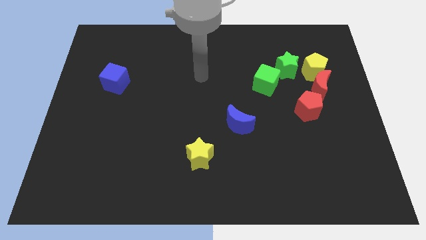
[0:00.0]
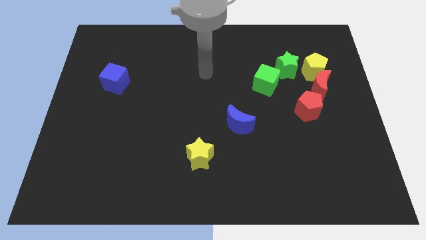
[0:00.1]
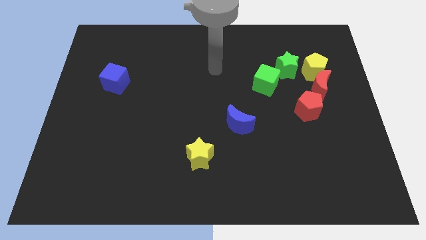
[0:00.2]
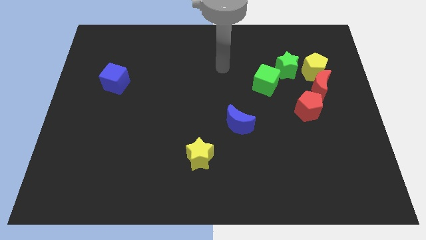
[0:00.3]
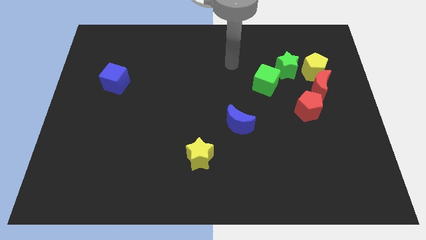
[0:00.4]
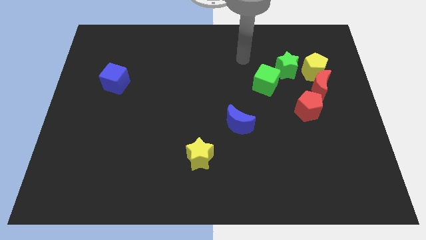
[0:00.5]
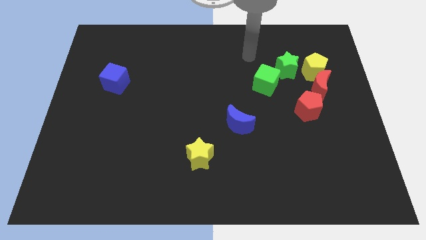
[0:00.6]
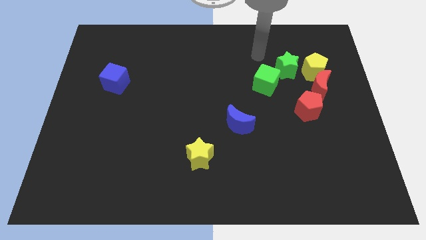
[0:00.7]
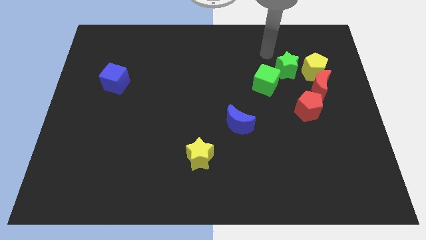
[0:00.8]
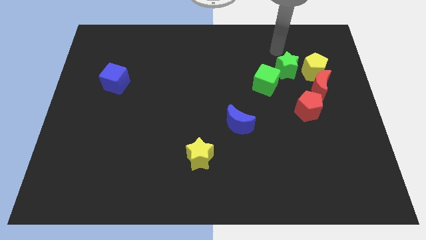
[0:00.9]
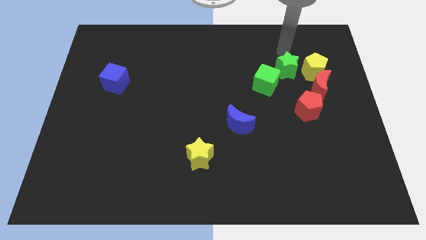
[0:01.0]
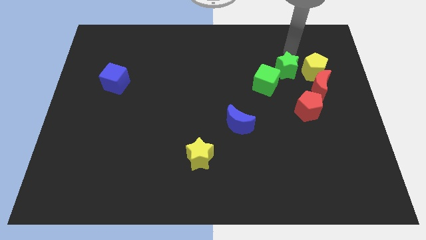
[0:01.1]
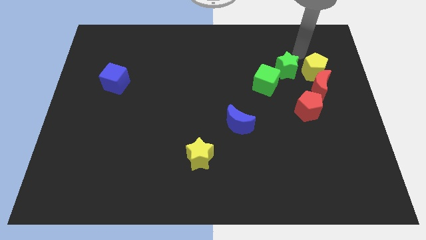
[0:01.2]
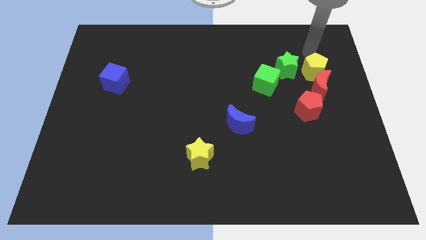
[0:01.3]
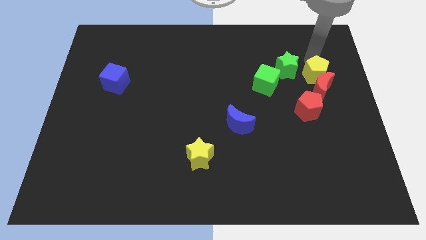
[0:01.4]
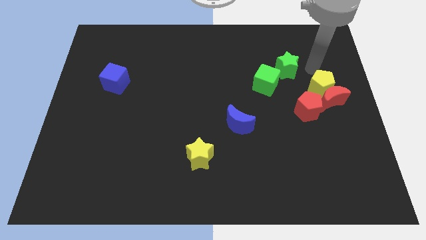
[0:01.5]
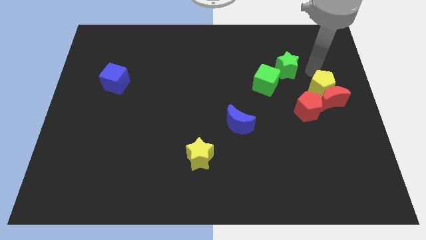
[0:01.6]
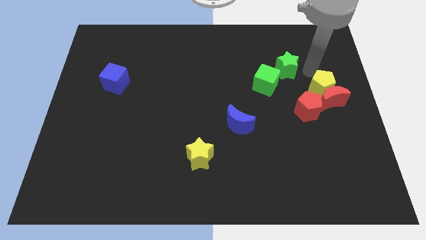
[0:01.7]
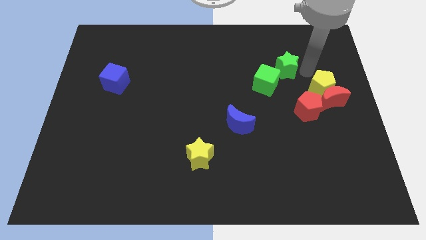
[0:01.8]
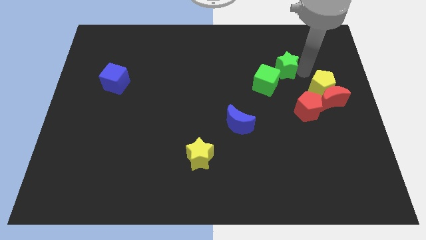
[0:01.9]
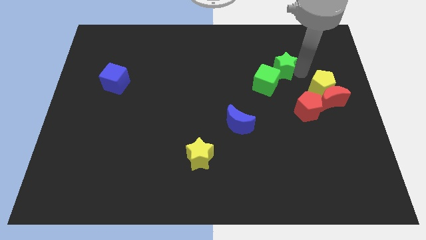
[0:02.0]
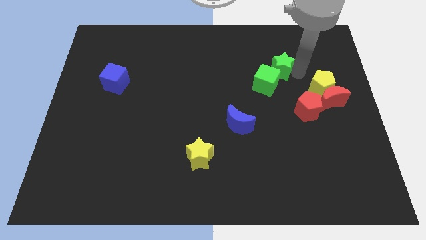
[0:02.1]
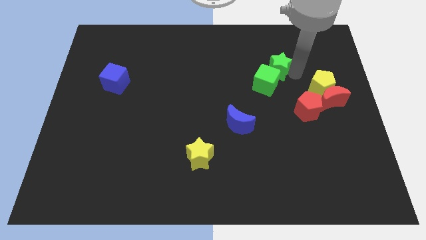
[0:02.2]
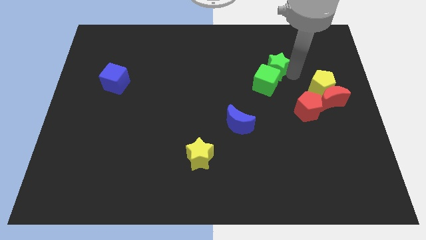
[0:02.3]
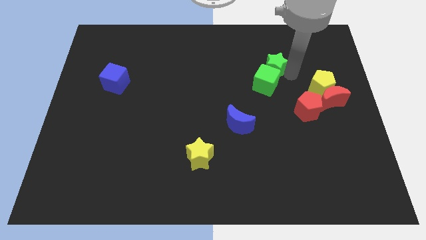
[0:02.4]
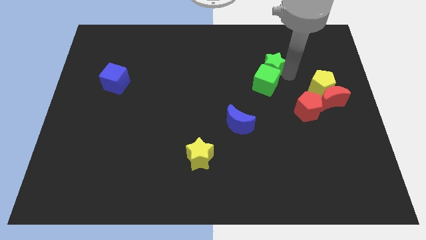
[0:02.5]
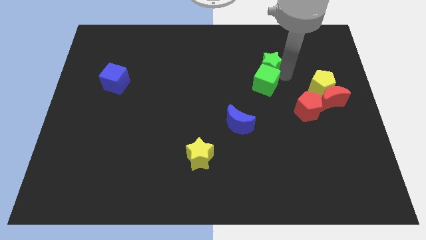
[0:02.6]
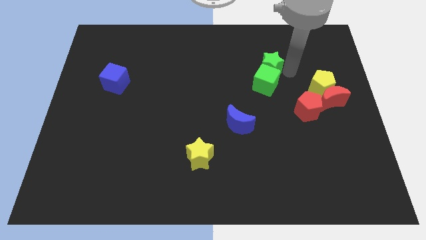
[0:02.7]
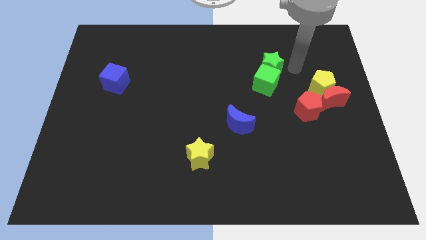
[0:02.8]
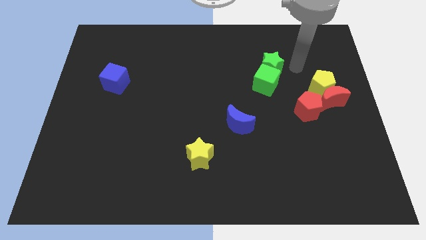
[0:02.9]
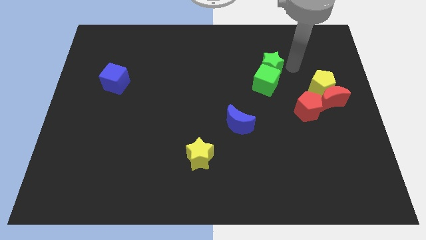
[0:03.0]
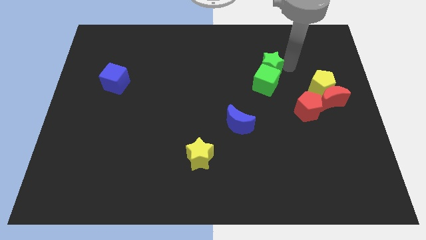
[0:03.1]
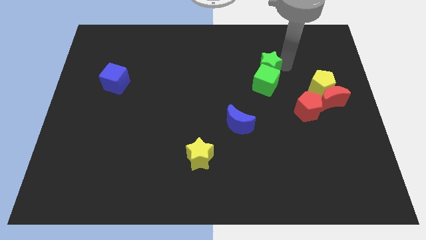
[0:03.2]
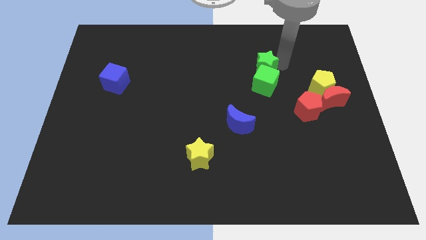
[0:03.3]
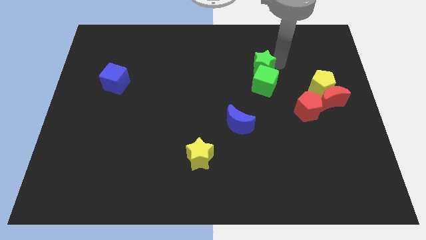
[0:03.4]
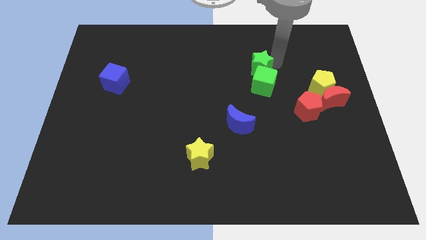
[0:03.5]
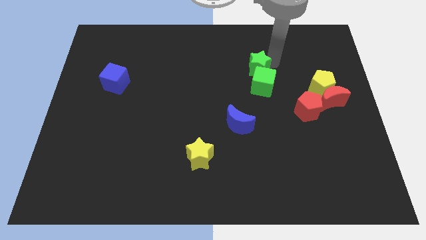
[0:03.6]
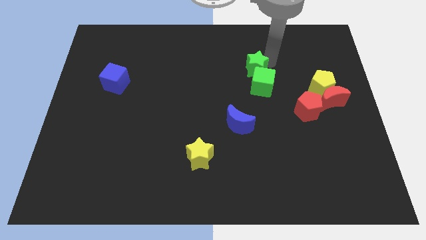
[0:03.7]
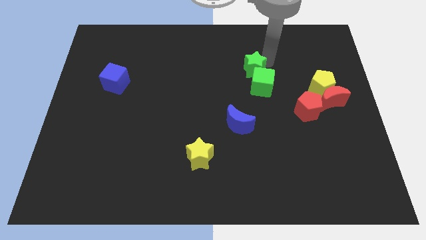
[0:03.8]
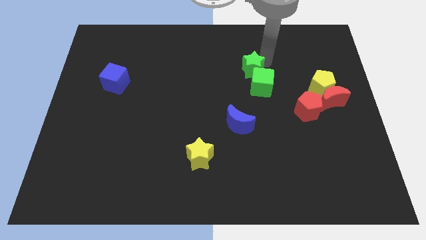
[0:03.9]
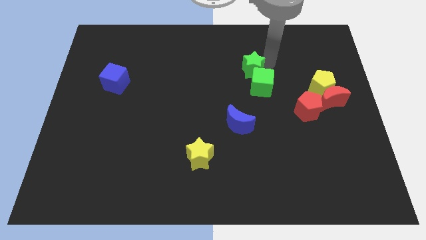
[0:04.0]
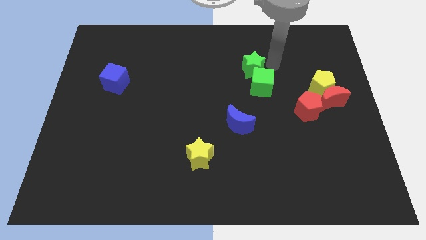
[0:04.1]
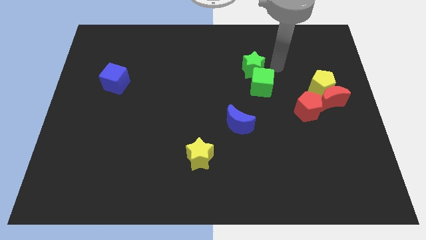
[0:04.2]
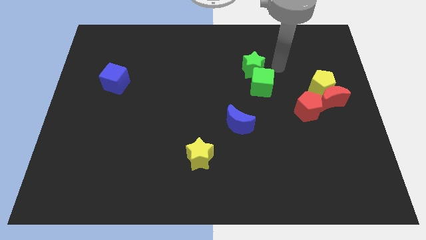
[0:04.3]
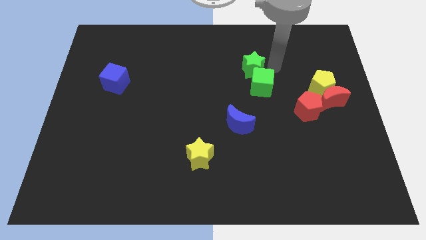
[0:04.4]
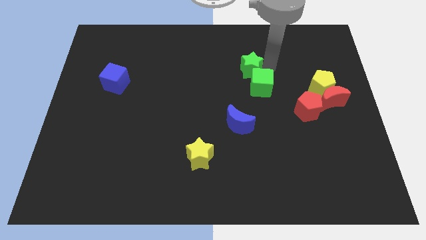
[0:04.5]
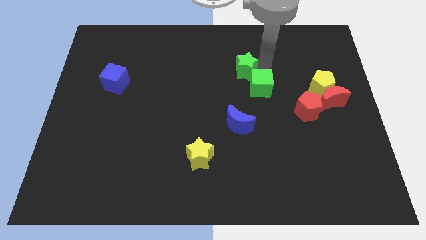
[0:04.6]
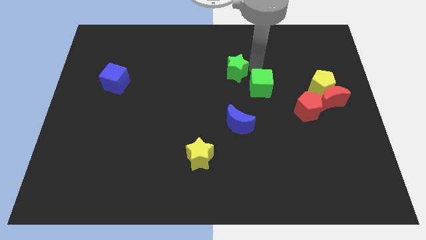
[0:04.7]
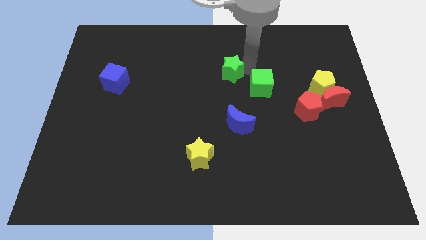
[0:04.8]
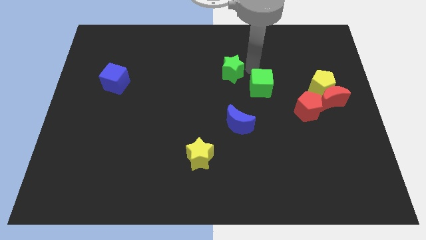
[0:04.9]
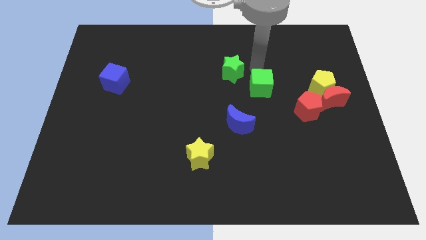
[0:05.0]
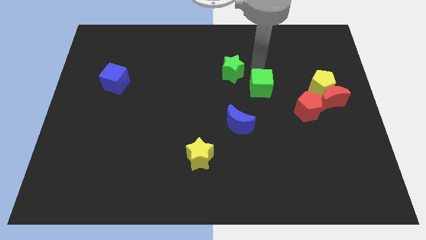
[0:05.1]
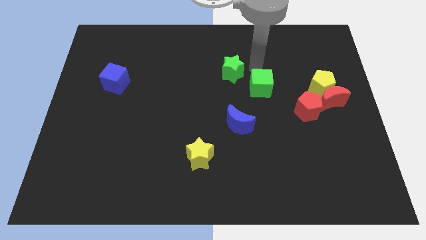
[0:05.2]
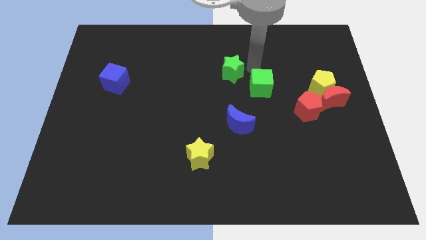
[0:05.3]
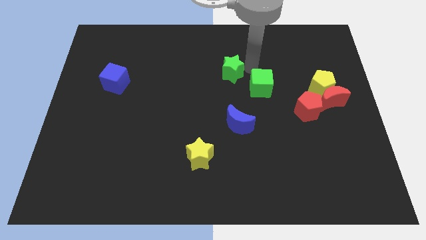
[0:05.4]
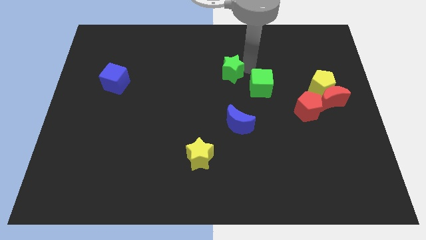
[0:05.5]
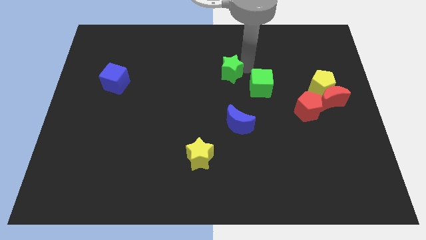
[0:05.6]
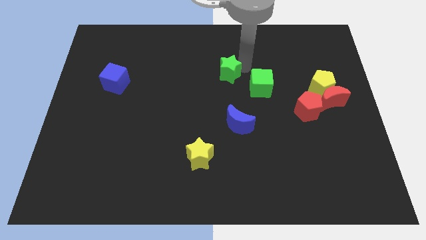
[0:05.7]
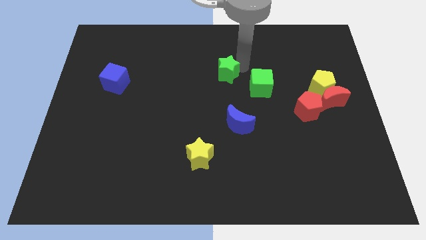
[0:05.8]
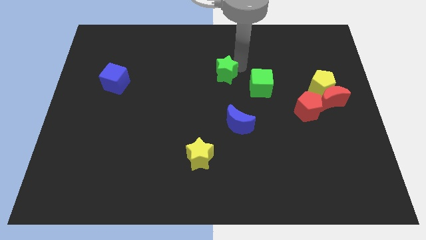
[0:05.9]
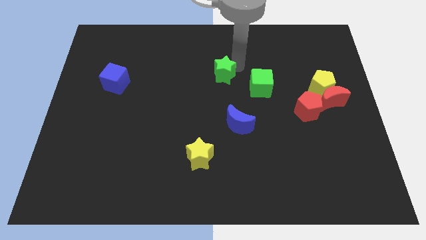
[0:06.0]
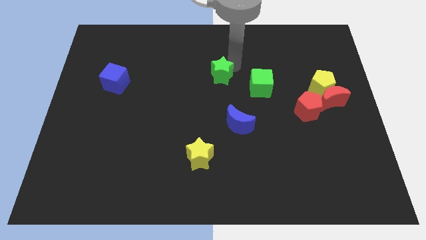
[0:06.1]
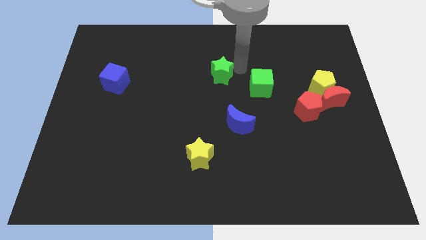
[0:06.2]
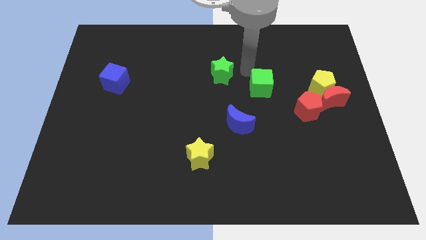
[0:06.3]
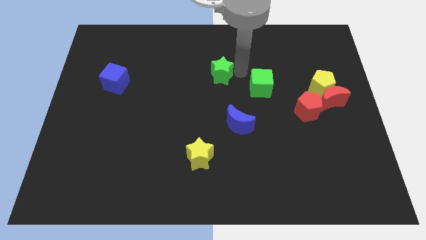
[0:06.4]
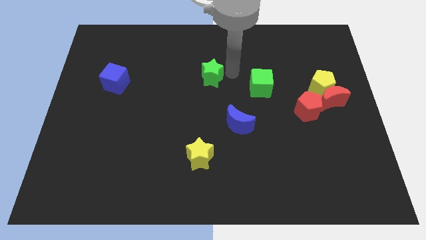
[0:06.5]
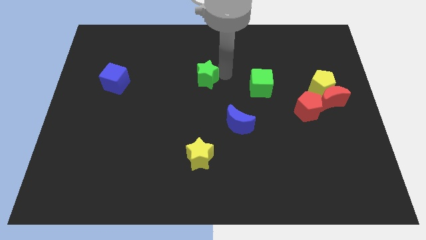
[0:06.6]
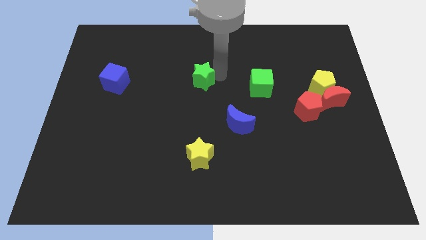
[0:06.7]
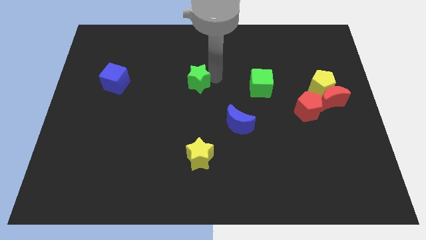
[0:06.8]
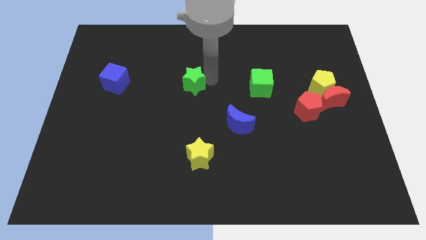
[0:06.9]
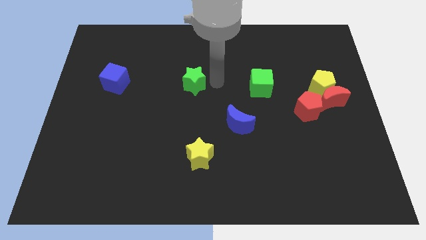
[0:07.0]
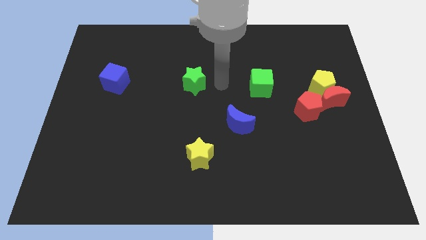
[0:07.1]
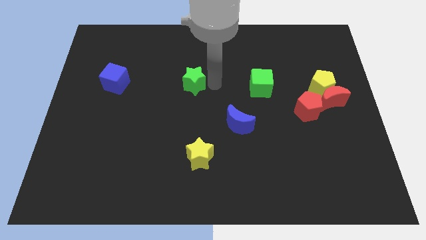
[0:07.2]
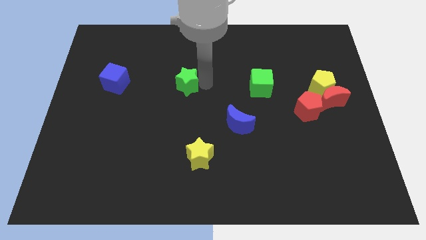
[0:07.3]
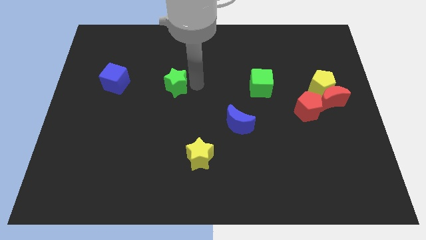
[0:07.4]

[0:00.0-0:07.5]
put the green star to the right of the blue cube
